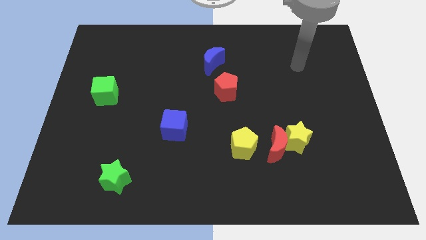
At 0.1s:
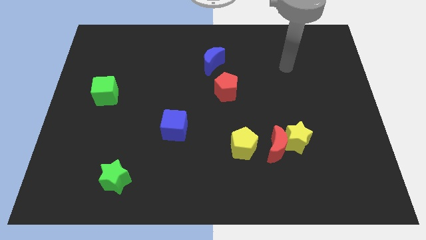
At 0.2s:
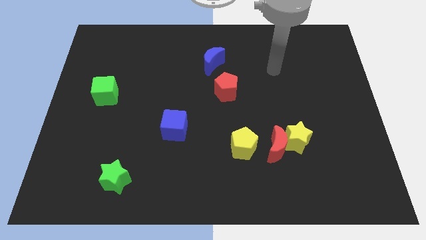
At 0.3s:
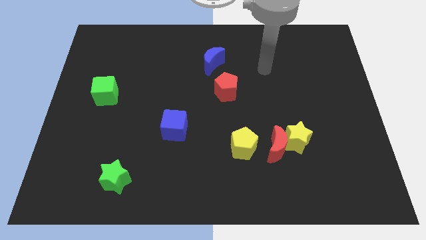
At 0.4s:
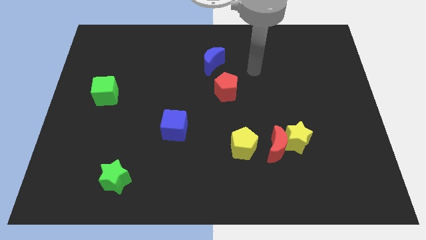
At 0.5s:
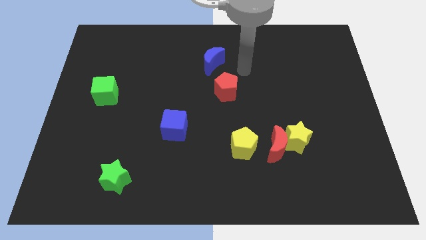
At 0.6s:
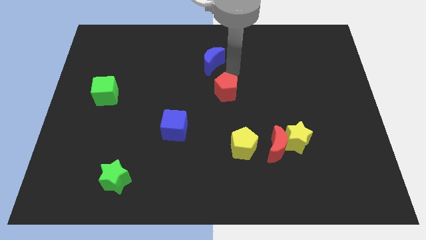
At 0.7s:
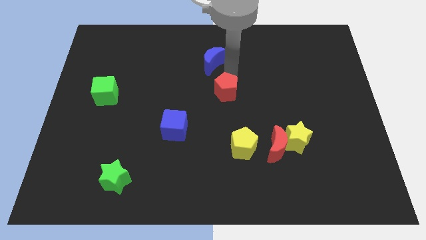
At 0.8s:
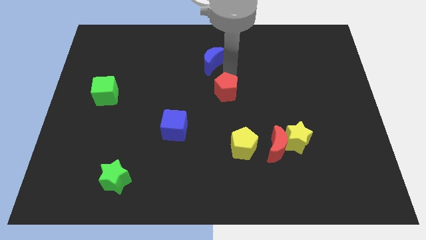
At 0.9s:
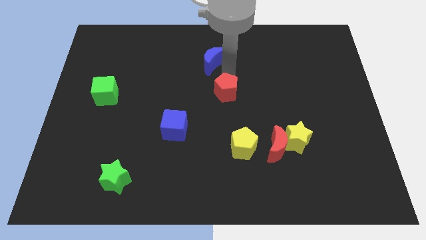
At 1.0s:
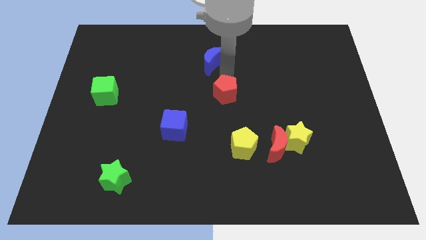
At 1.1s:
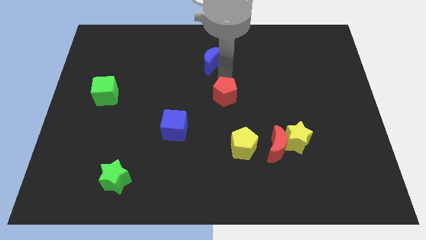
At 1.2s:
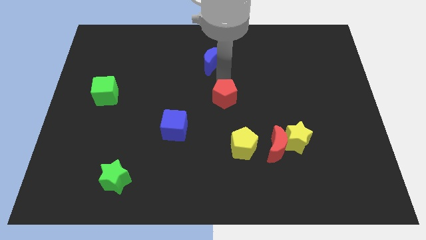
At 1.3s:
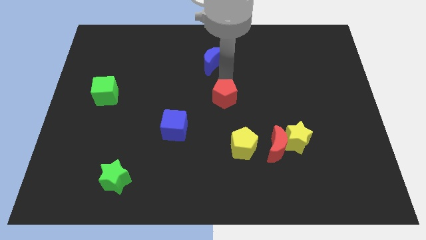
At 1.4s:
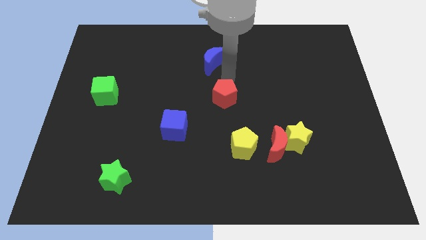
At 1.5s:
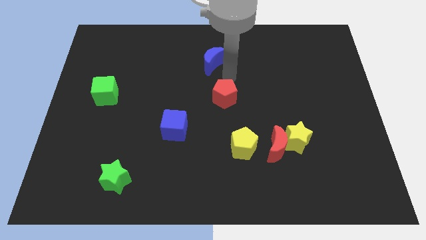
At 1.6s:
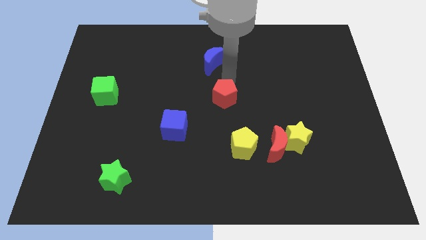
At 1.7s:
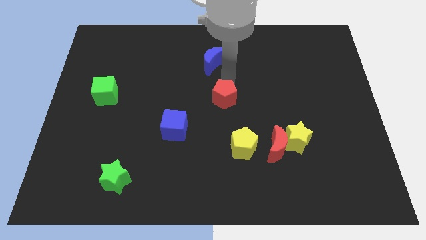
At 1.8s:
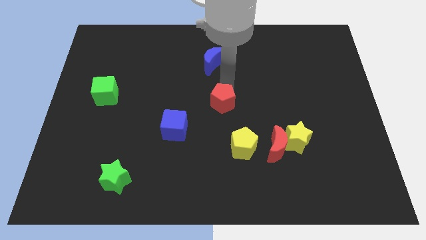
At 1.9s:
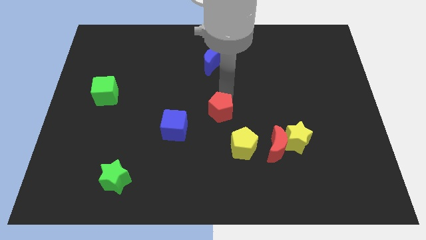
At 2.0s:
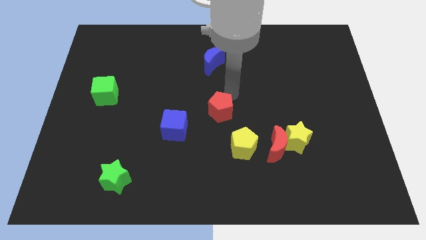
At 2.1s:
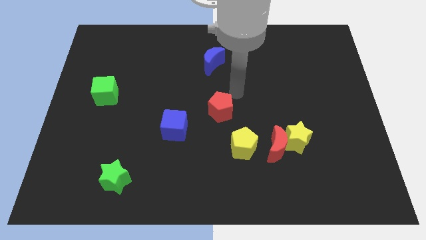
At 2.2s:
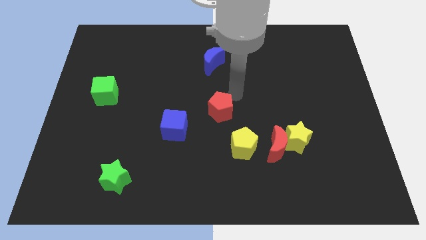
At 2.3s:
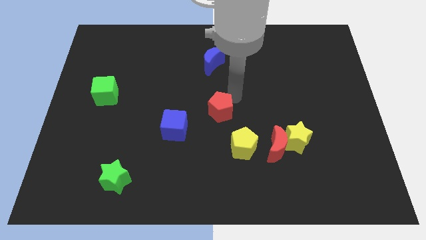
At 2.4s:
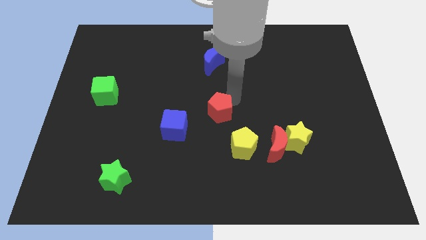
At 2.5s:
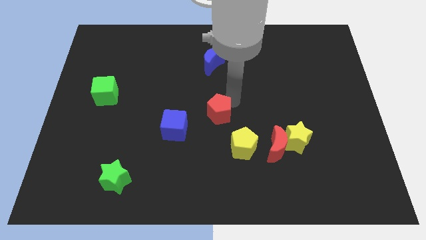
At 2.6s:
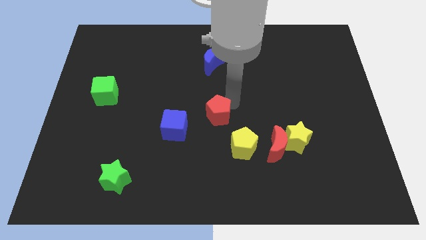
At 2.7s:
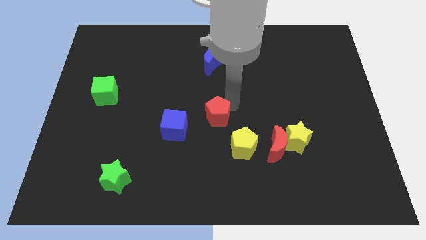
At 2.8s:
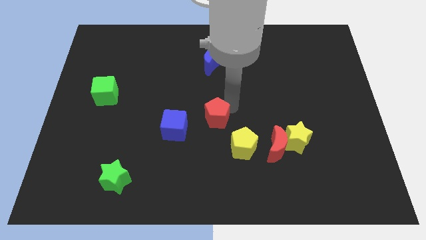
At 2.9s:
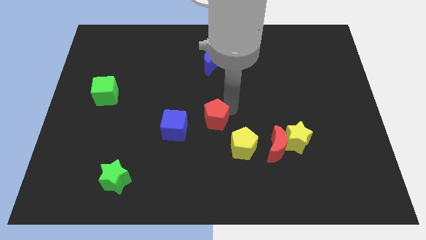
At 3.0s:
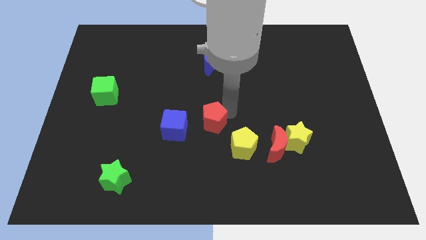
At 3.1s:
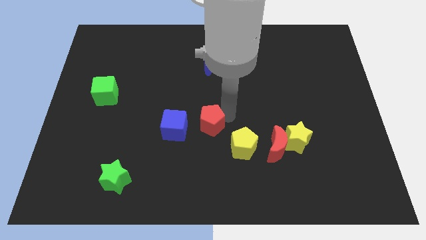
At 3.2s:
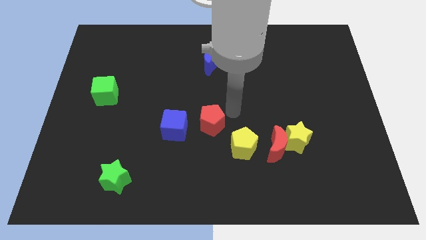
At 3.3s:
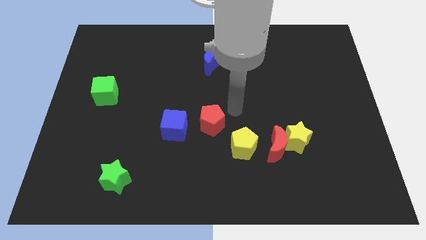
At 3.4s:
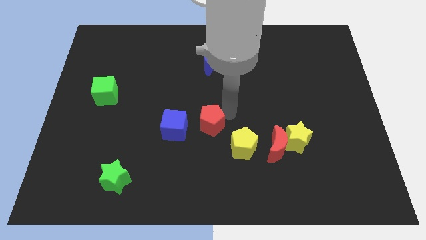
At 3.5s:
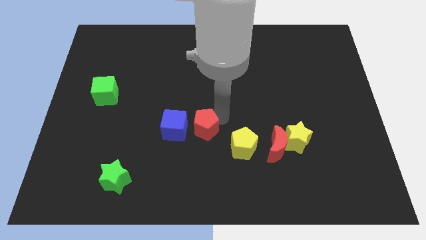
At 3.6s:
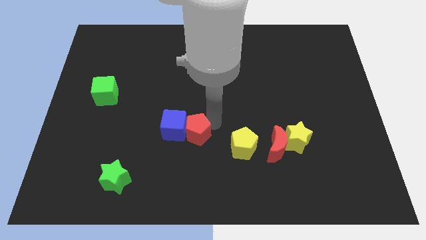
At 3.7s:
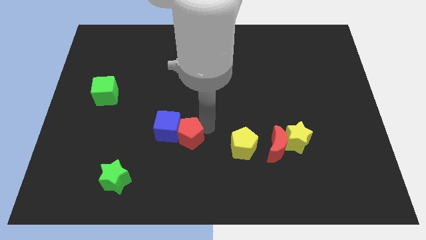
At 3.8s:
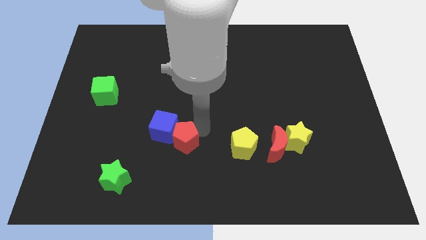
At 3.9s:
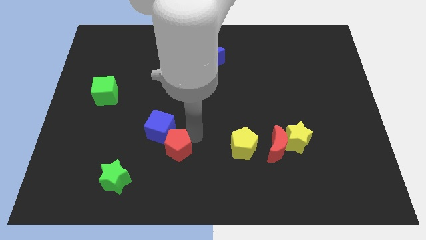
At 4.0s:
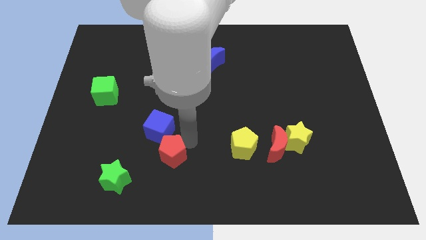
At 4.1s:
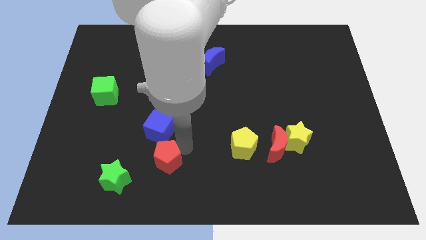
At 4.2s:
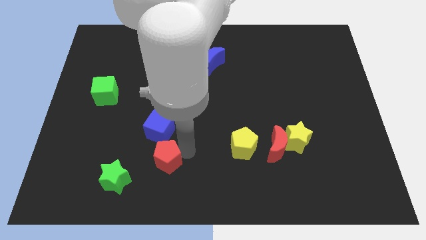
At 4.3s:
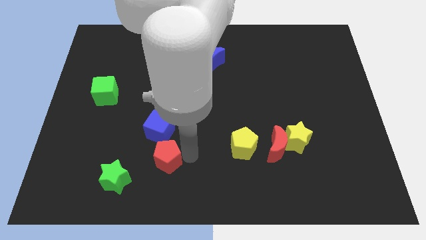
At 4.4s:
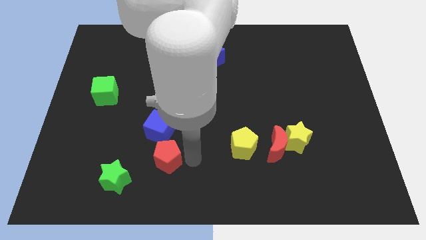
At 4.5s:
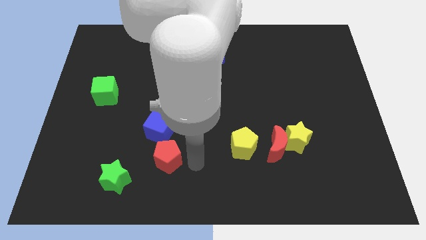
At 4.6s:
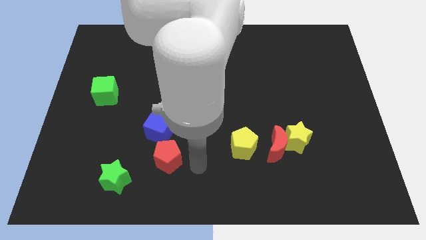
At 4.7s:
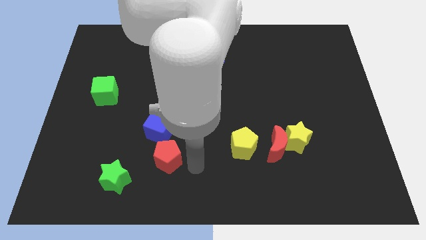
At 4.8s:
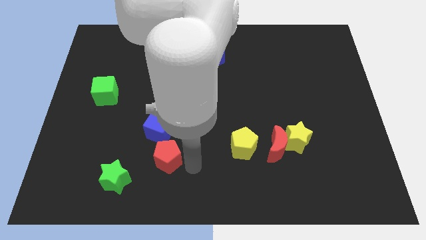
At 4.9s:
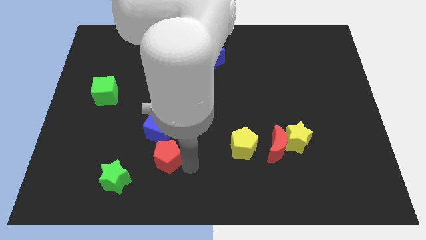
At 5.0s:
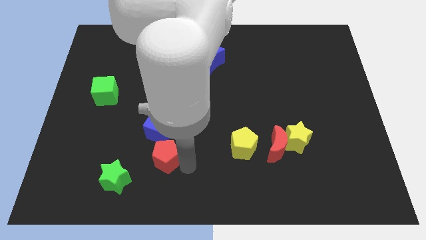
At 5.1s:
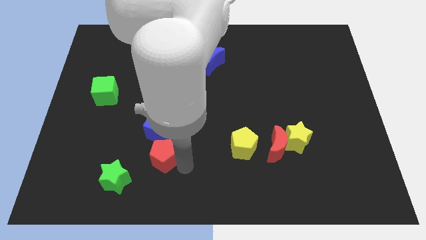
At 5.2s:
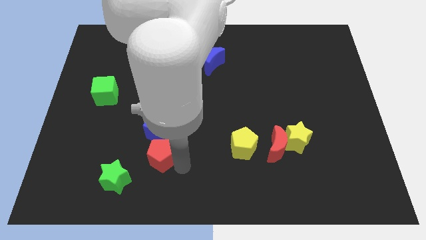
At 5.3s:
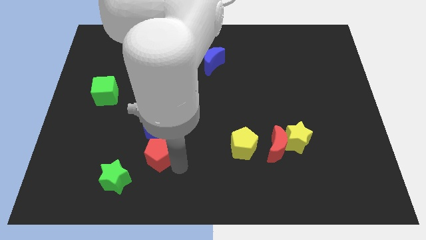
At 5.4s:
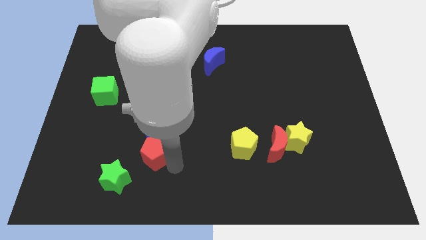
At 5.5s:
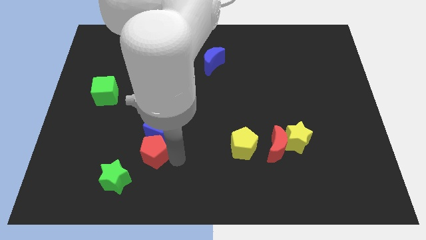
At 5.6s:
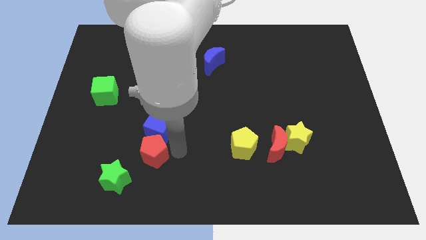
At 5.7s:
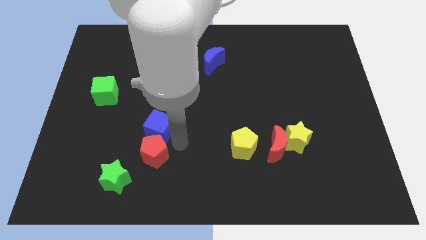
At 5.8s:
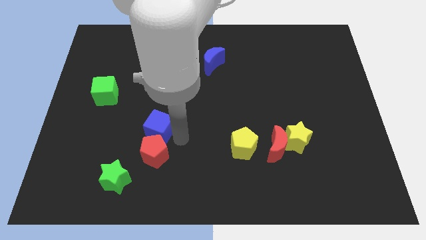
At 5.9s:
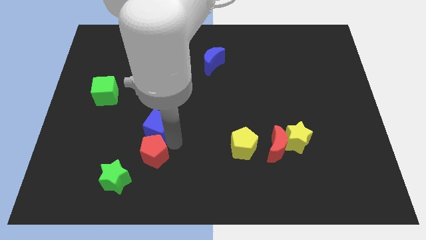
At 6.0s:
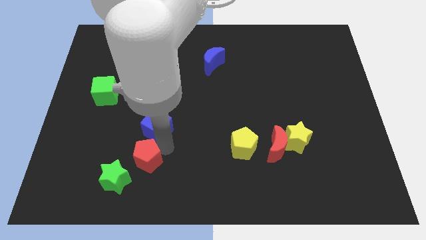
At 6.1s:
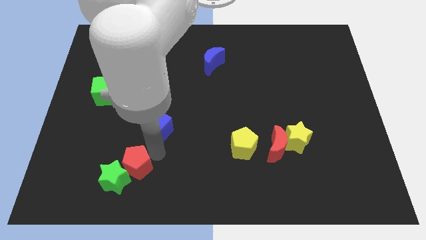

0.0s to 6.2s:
push the red pentagon to the green star
